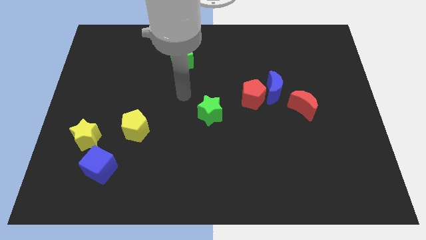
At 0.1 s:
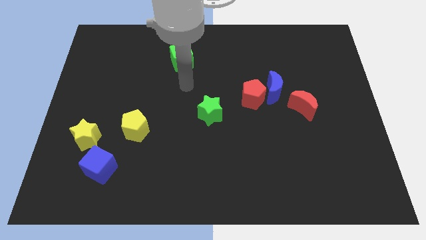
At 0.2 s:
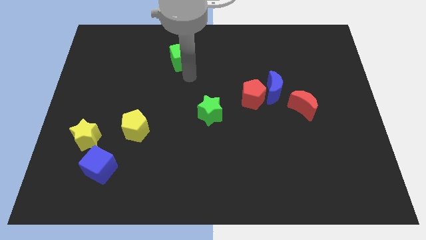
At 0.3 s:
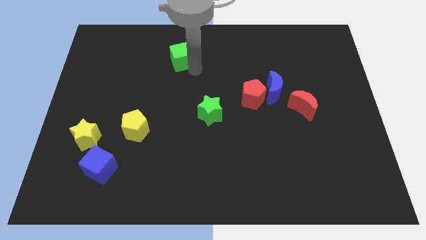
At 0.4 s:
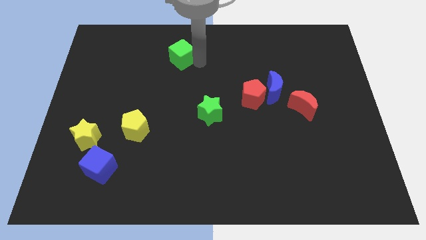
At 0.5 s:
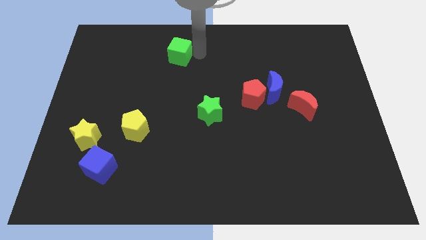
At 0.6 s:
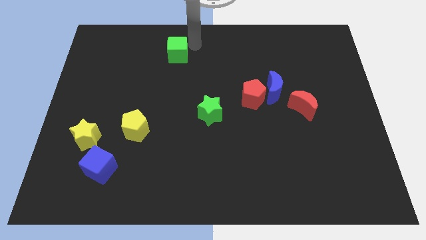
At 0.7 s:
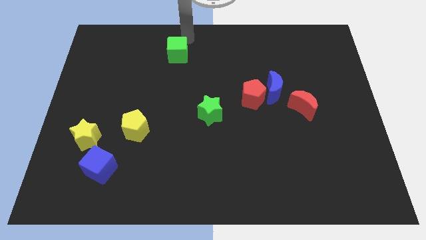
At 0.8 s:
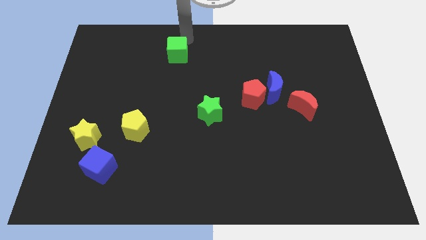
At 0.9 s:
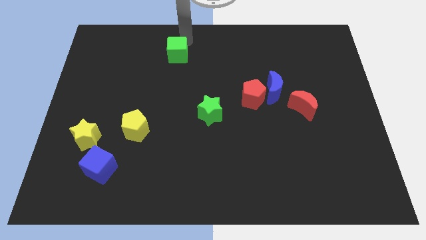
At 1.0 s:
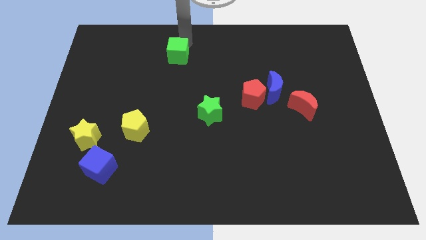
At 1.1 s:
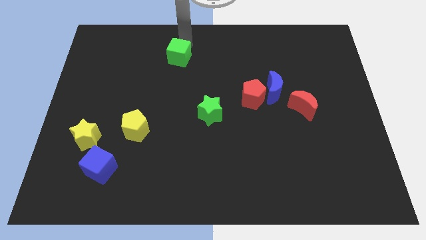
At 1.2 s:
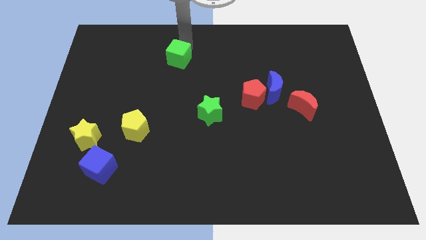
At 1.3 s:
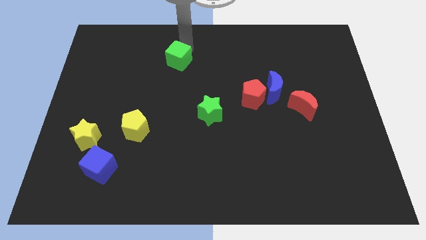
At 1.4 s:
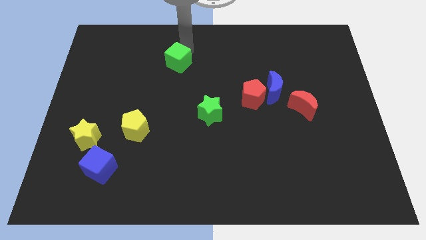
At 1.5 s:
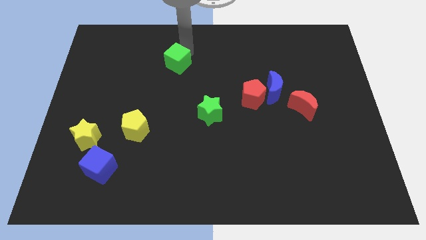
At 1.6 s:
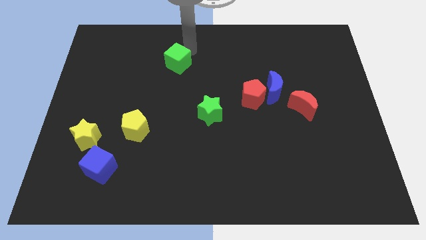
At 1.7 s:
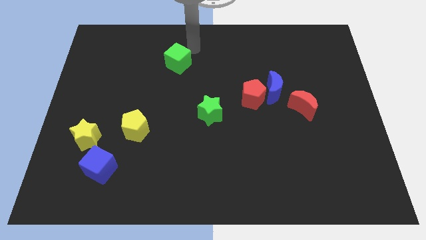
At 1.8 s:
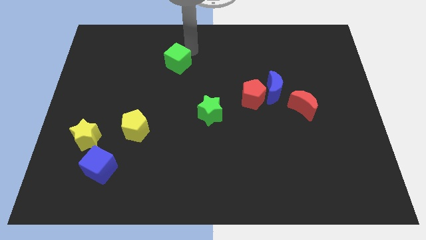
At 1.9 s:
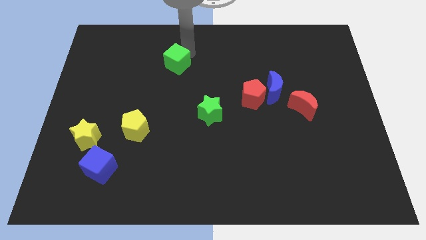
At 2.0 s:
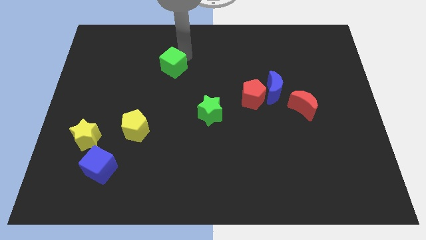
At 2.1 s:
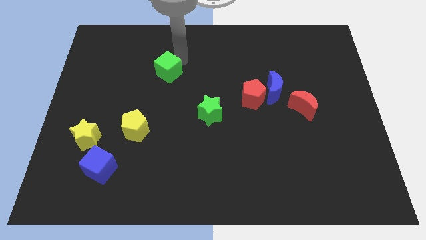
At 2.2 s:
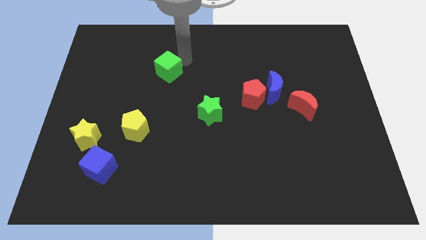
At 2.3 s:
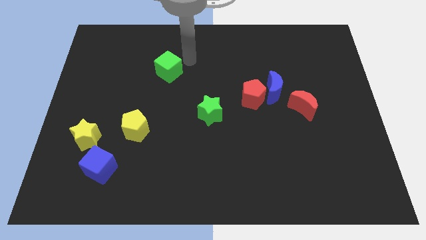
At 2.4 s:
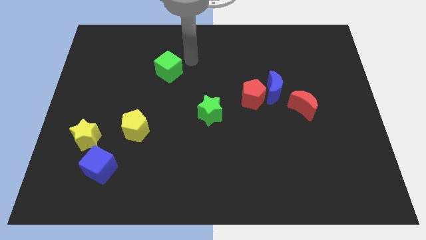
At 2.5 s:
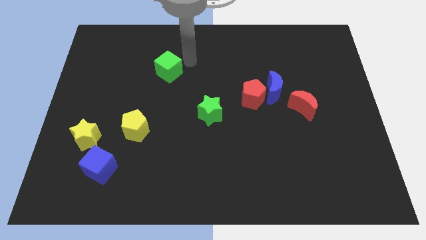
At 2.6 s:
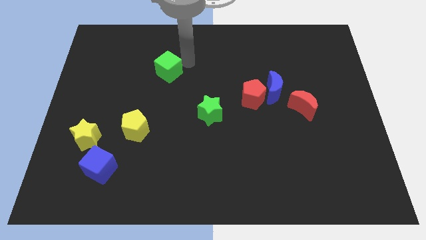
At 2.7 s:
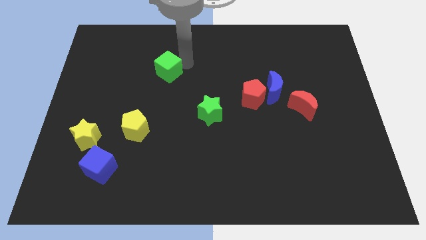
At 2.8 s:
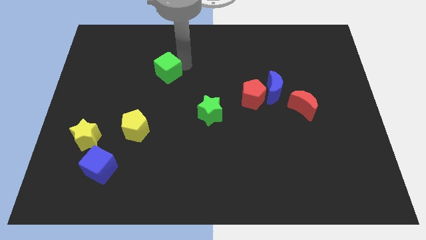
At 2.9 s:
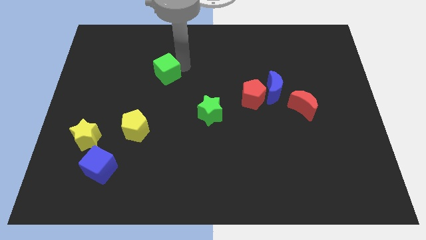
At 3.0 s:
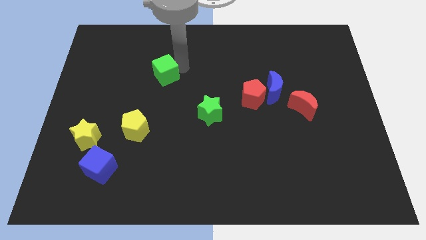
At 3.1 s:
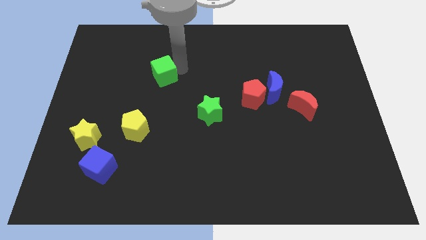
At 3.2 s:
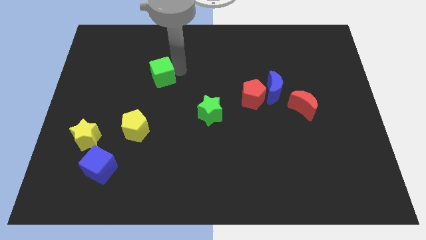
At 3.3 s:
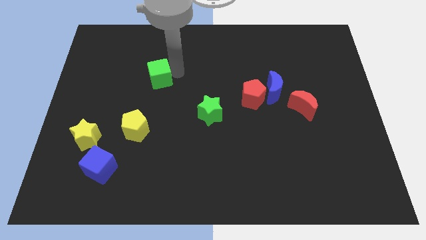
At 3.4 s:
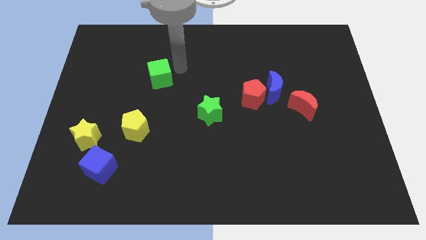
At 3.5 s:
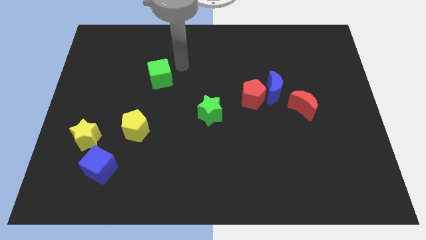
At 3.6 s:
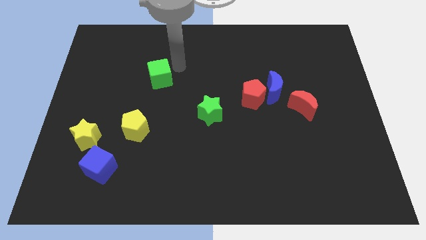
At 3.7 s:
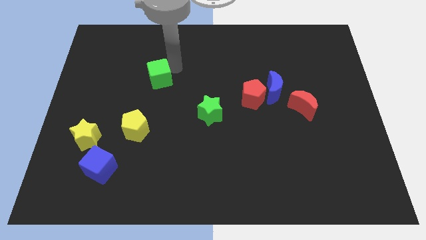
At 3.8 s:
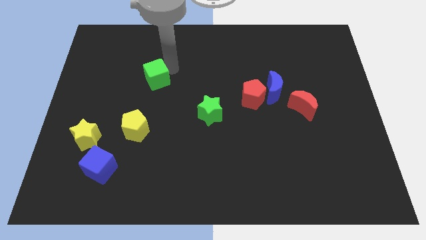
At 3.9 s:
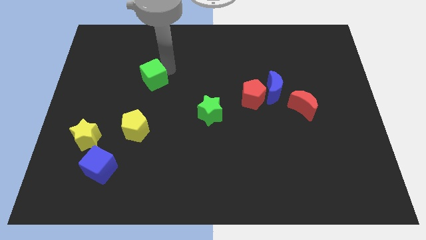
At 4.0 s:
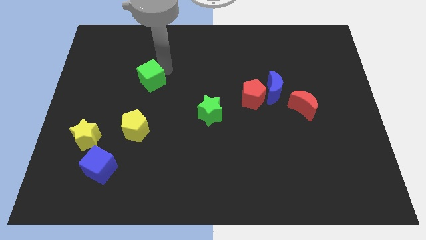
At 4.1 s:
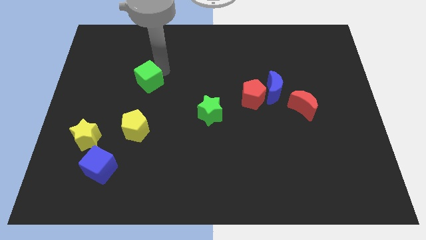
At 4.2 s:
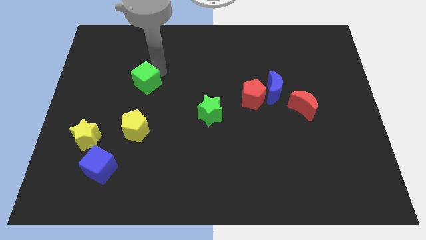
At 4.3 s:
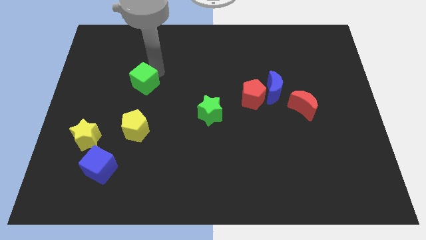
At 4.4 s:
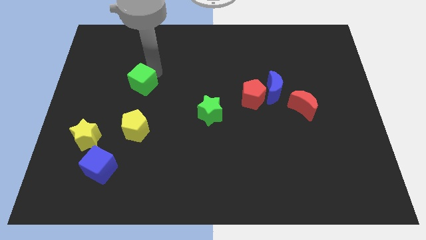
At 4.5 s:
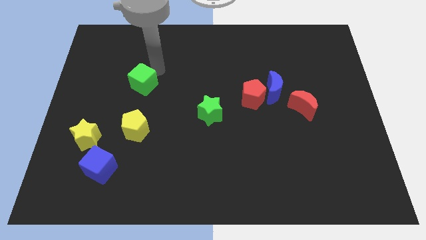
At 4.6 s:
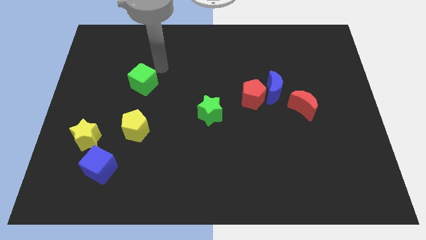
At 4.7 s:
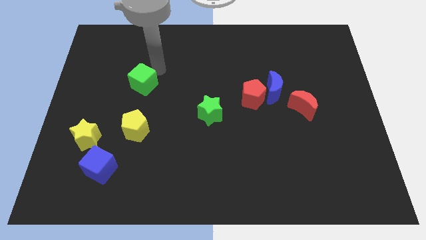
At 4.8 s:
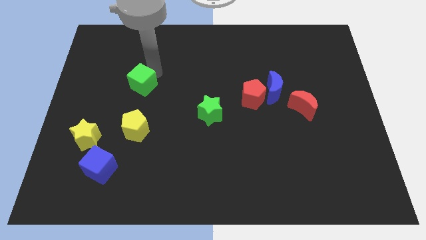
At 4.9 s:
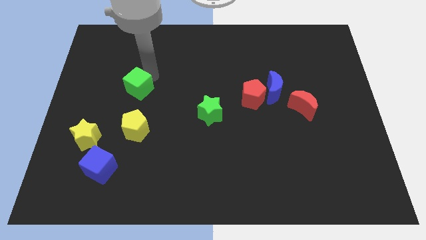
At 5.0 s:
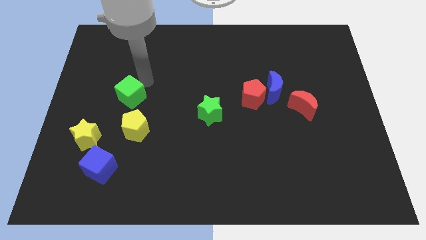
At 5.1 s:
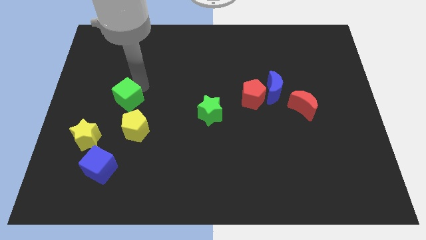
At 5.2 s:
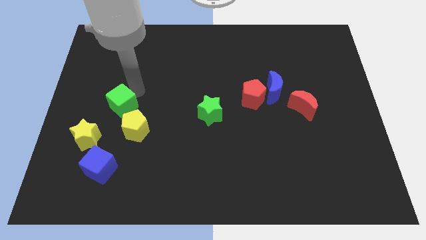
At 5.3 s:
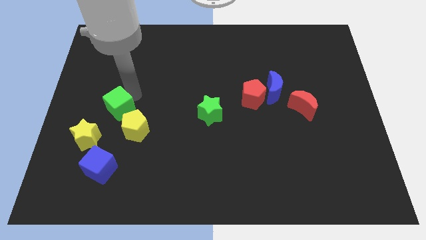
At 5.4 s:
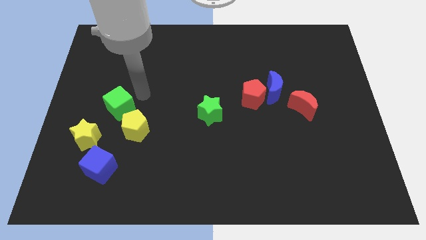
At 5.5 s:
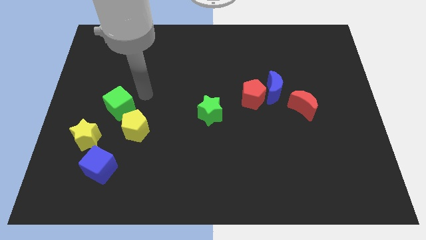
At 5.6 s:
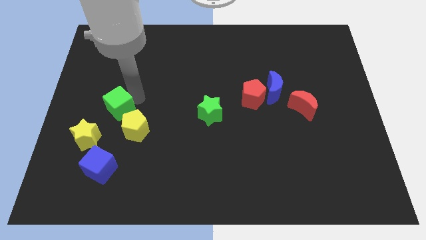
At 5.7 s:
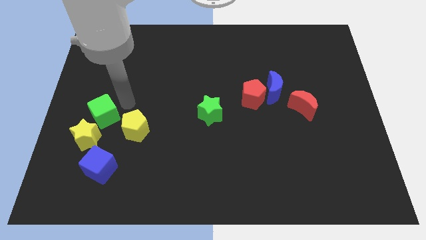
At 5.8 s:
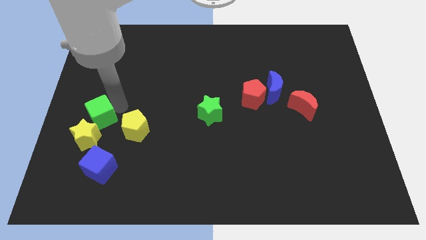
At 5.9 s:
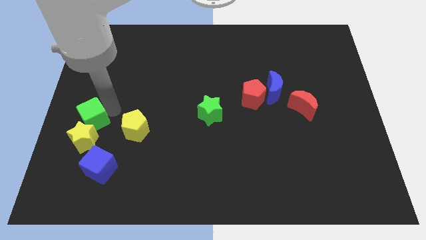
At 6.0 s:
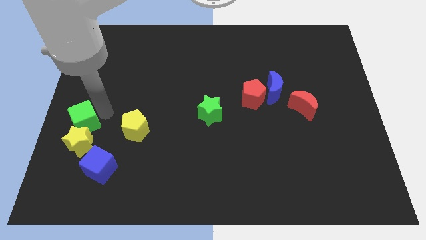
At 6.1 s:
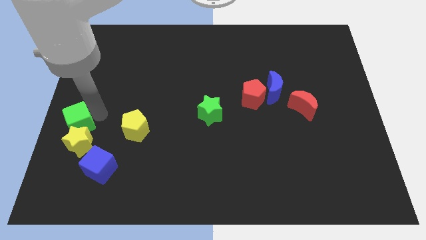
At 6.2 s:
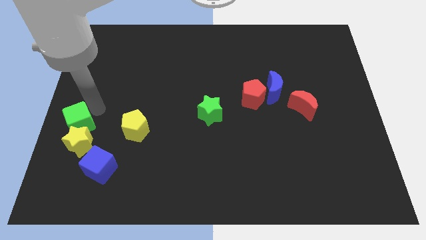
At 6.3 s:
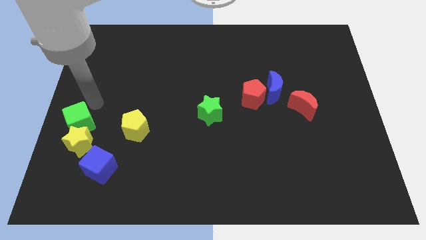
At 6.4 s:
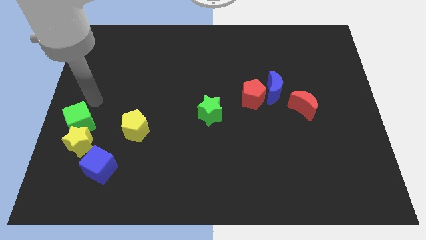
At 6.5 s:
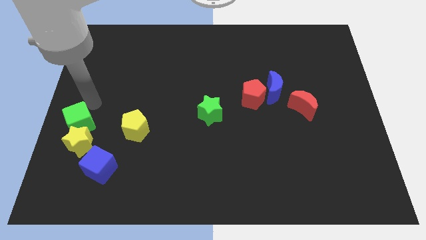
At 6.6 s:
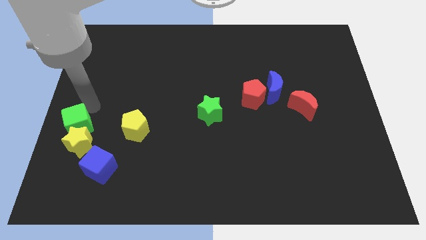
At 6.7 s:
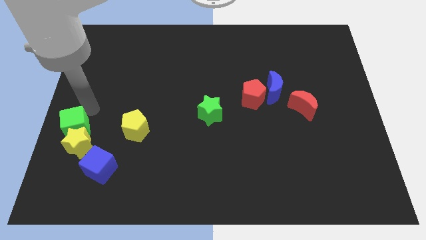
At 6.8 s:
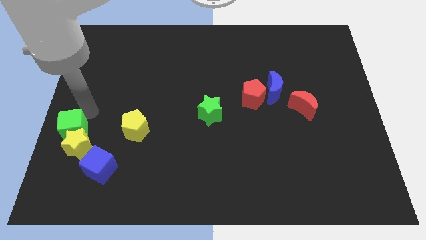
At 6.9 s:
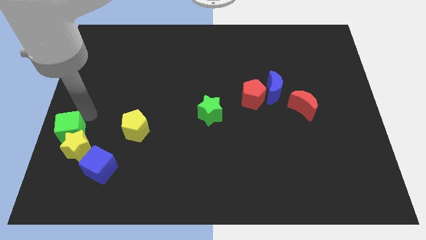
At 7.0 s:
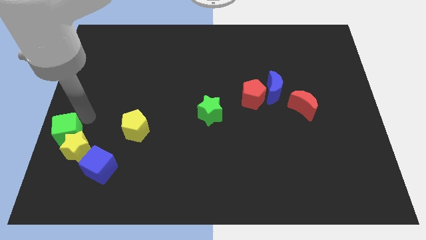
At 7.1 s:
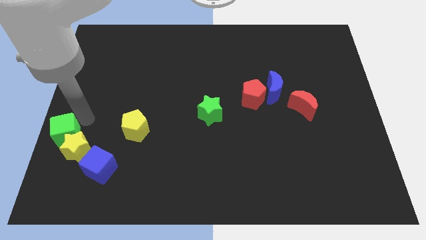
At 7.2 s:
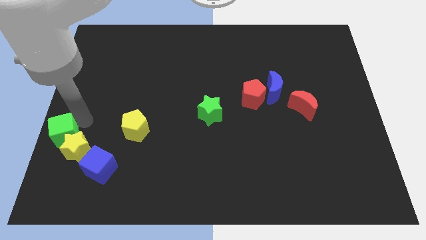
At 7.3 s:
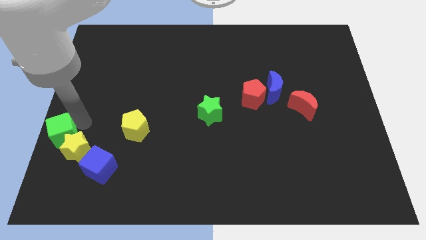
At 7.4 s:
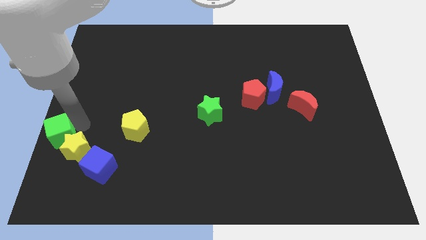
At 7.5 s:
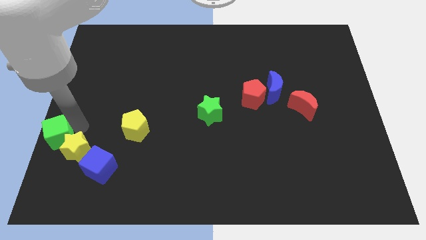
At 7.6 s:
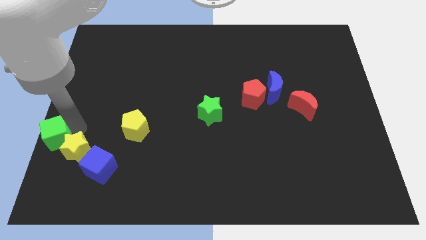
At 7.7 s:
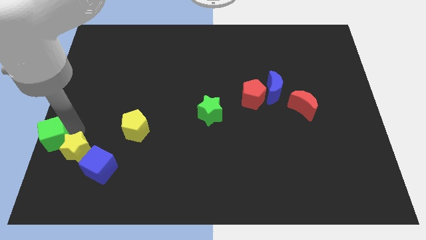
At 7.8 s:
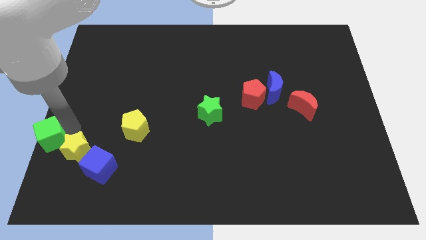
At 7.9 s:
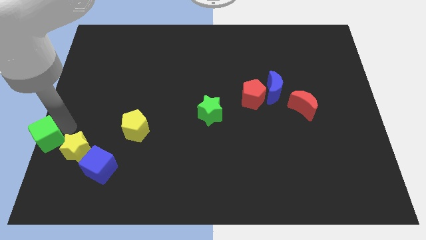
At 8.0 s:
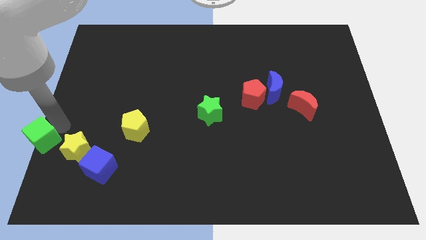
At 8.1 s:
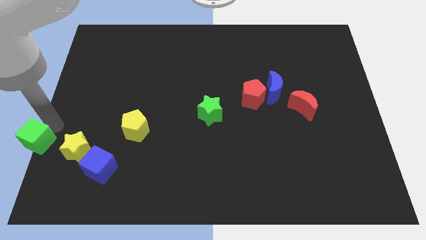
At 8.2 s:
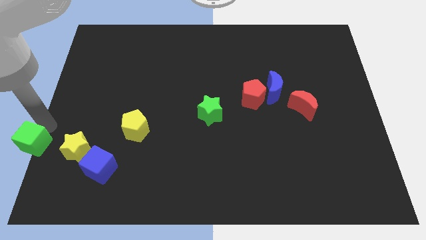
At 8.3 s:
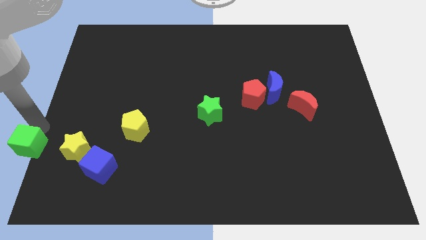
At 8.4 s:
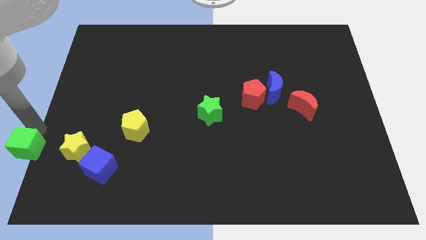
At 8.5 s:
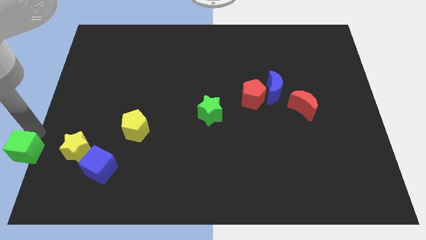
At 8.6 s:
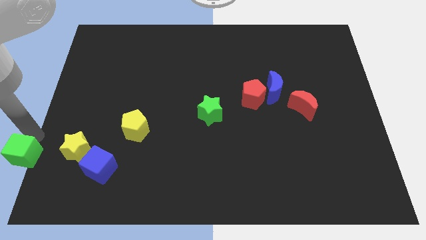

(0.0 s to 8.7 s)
slide the green cube to the bottom left corner
